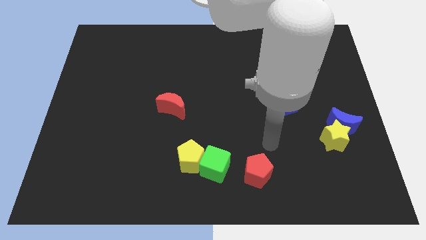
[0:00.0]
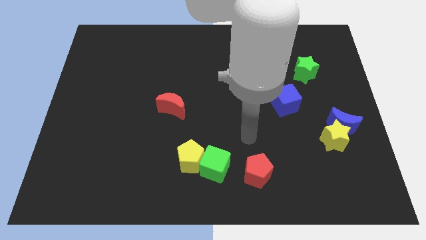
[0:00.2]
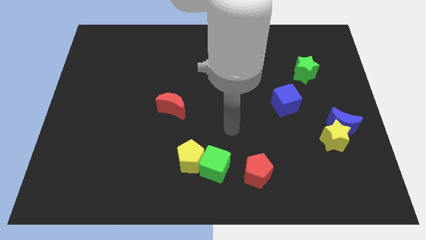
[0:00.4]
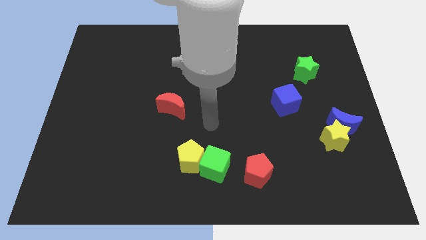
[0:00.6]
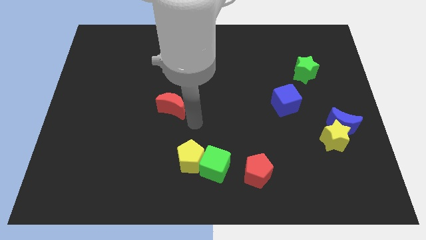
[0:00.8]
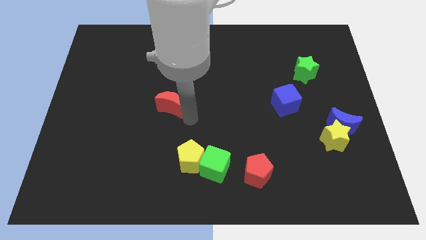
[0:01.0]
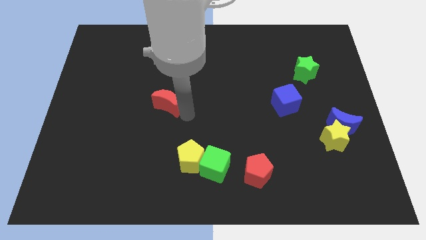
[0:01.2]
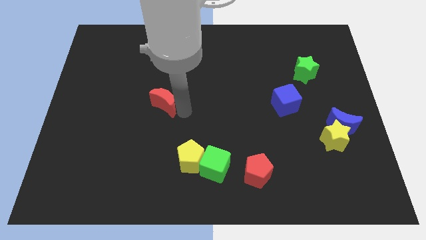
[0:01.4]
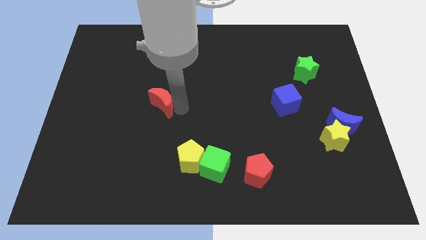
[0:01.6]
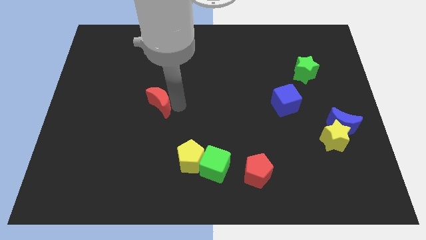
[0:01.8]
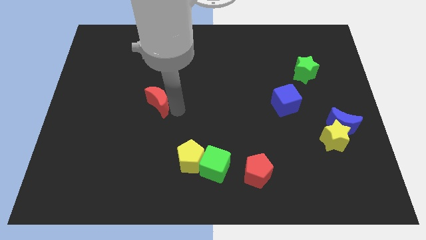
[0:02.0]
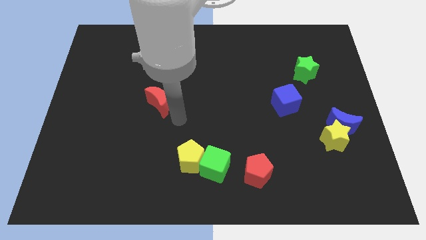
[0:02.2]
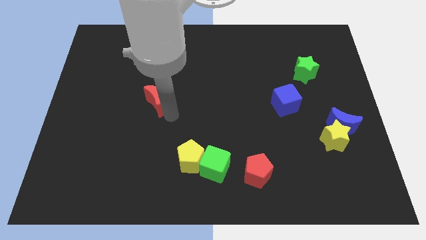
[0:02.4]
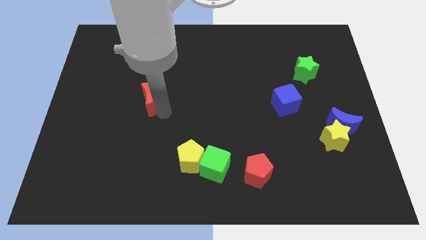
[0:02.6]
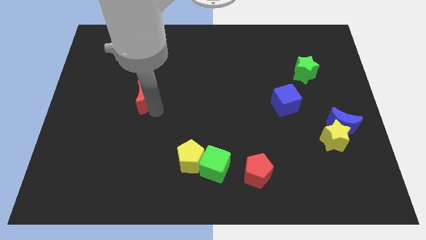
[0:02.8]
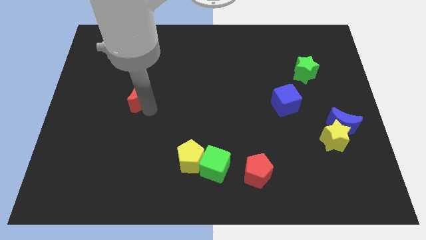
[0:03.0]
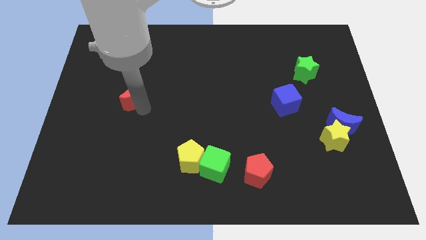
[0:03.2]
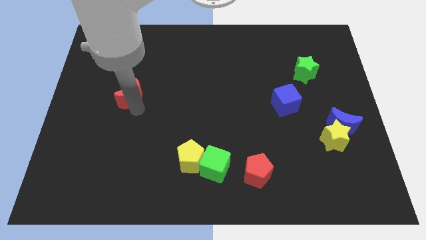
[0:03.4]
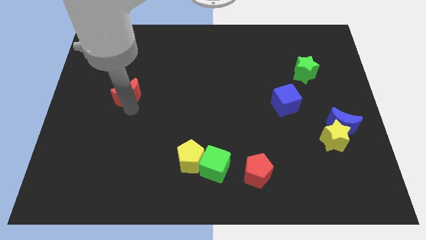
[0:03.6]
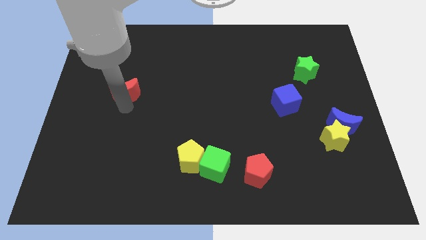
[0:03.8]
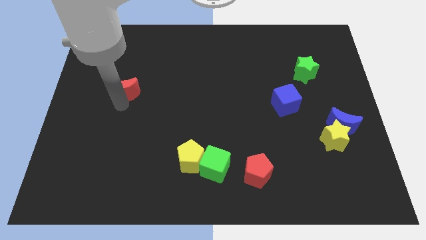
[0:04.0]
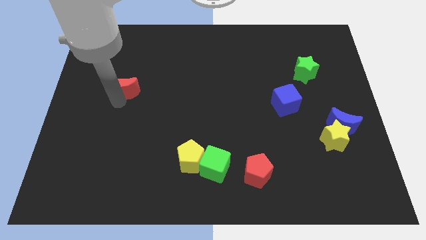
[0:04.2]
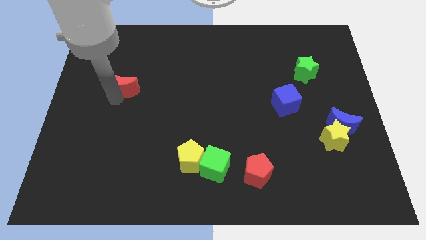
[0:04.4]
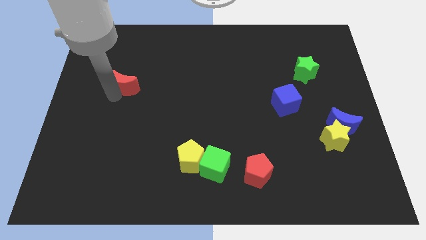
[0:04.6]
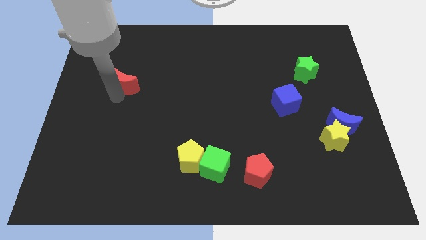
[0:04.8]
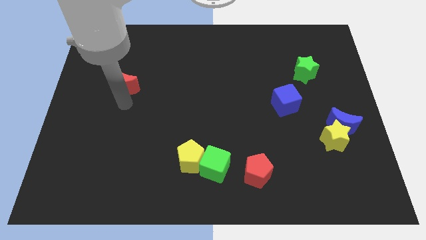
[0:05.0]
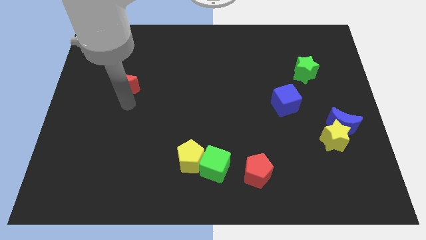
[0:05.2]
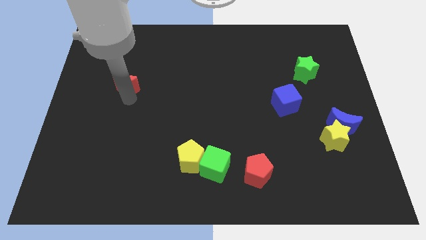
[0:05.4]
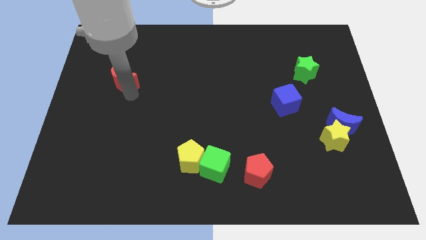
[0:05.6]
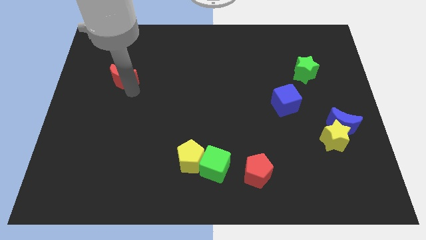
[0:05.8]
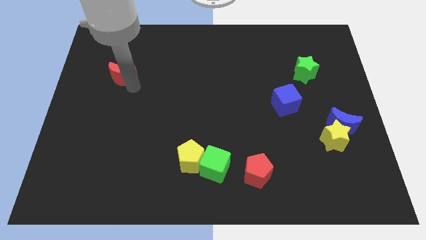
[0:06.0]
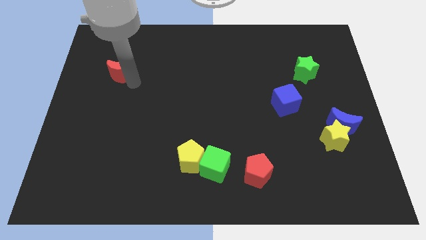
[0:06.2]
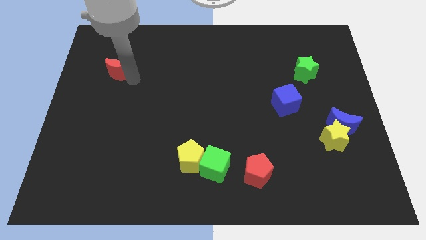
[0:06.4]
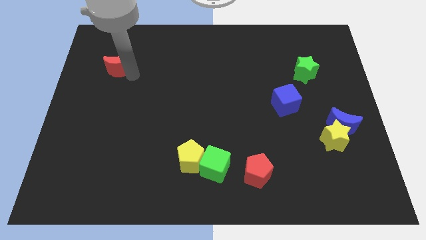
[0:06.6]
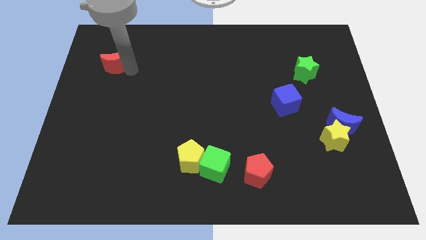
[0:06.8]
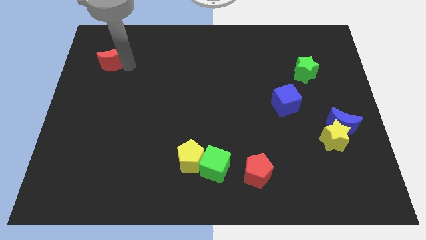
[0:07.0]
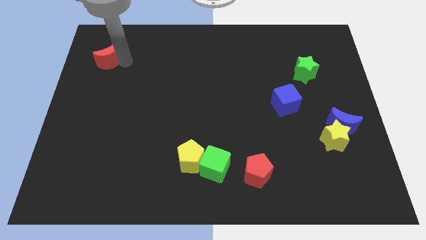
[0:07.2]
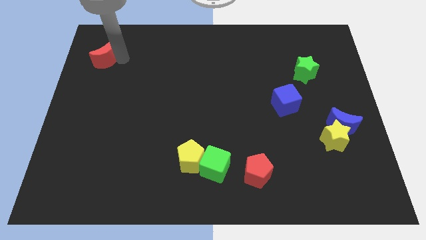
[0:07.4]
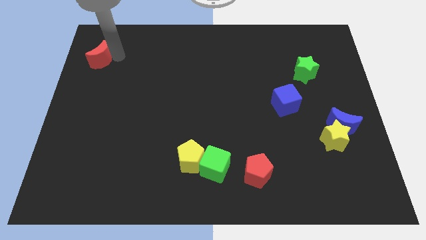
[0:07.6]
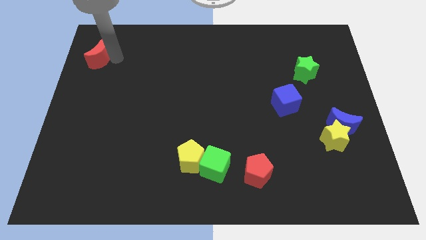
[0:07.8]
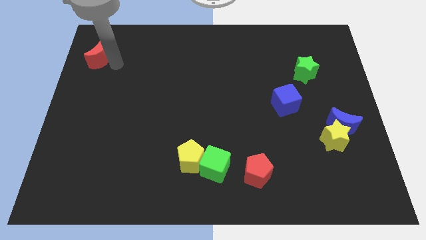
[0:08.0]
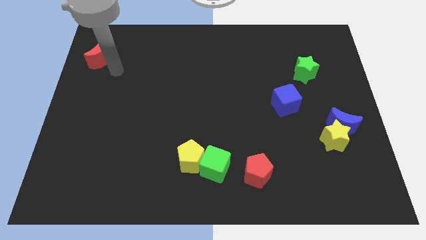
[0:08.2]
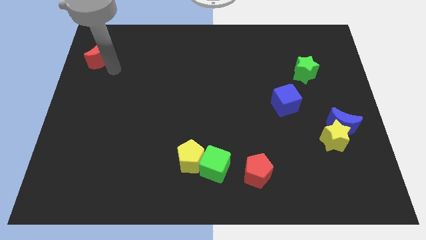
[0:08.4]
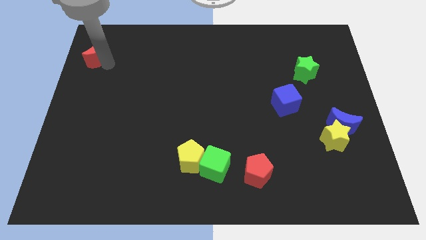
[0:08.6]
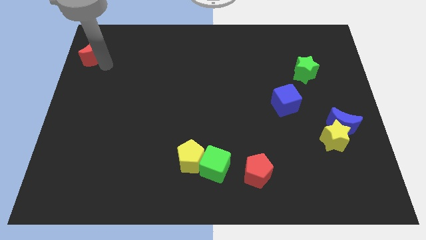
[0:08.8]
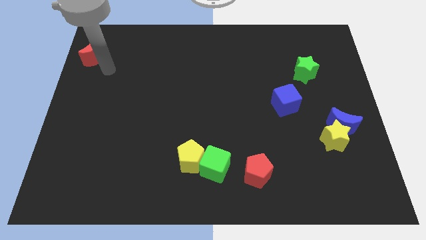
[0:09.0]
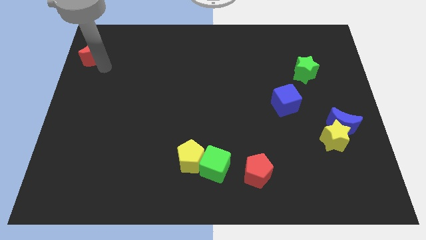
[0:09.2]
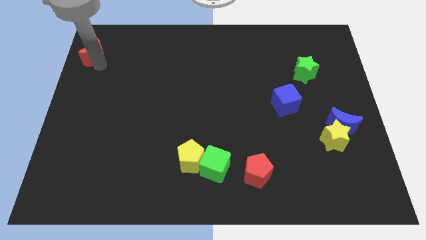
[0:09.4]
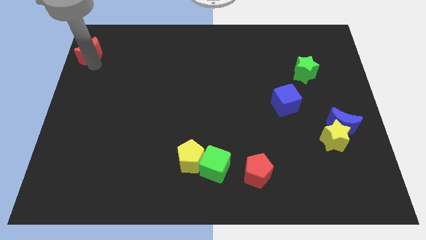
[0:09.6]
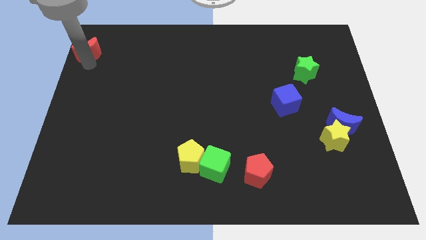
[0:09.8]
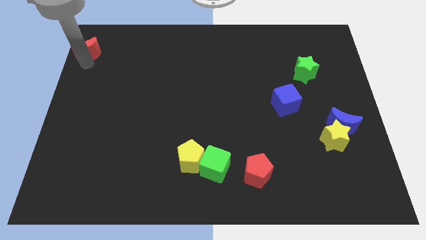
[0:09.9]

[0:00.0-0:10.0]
put the red moon to the top left corner

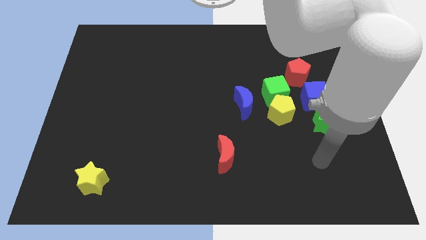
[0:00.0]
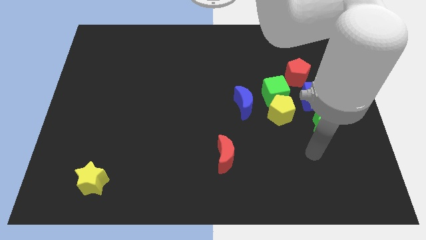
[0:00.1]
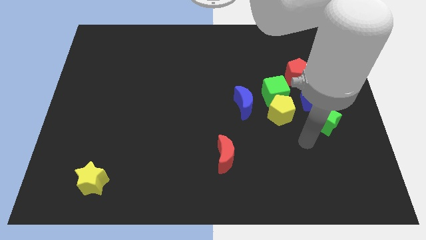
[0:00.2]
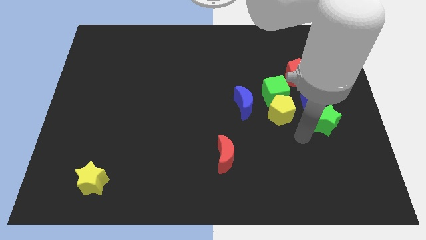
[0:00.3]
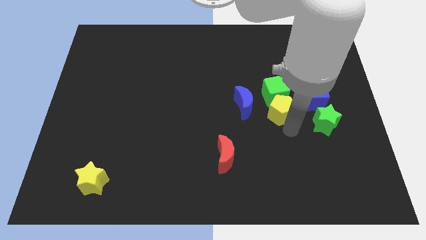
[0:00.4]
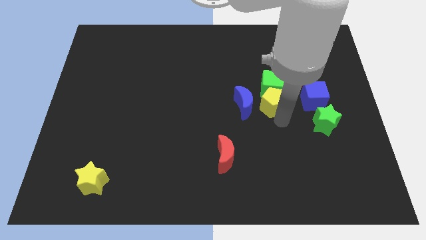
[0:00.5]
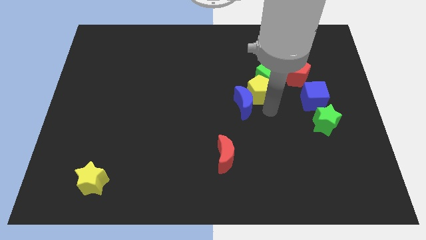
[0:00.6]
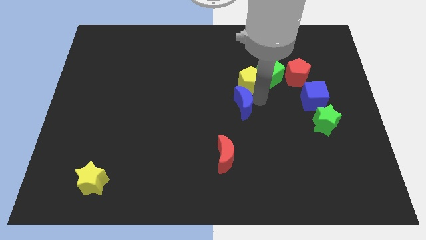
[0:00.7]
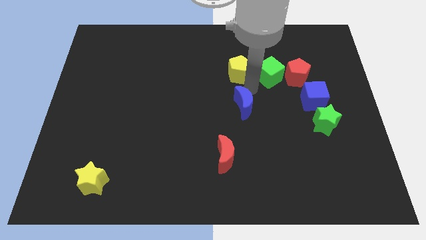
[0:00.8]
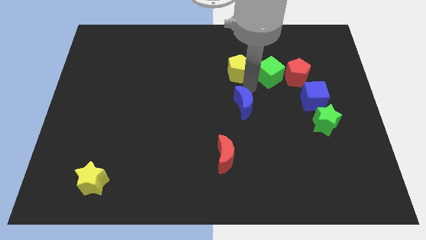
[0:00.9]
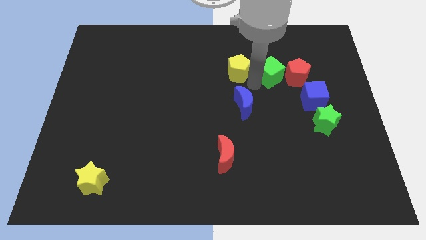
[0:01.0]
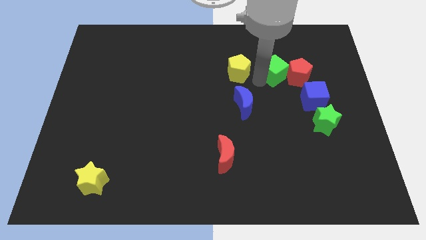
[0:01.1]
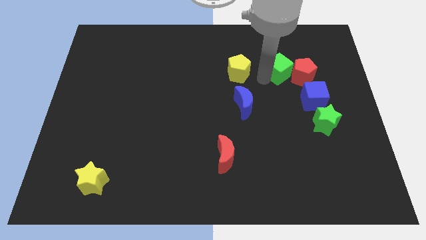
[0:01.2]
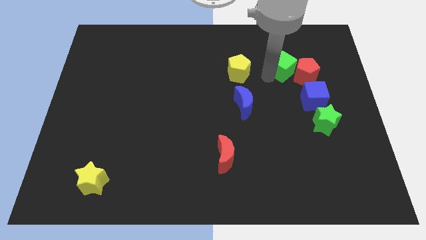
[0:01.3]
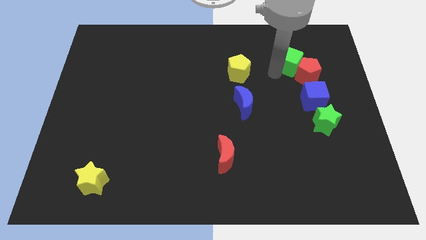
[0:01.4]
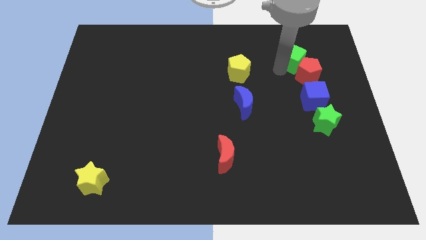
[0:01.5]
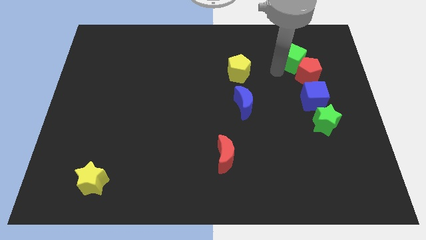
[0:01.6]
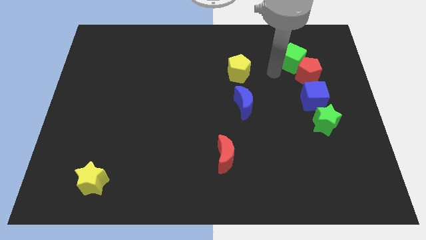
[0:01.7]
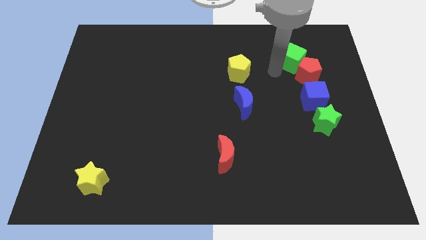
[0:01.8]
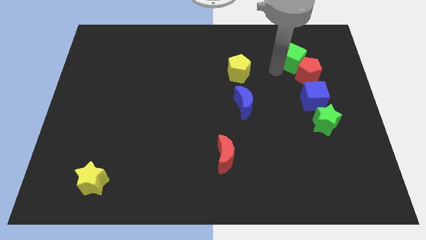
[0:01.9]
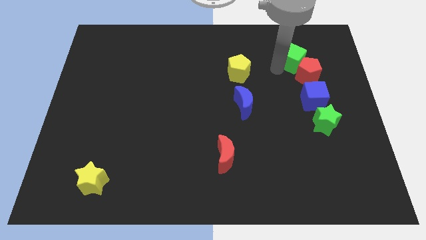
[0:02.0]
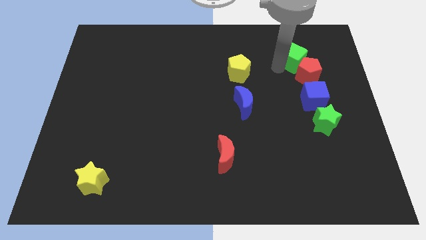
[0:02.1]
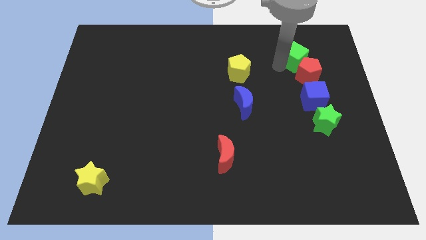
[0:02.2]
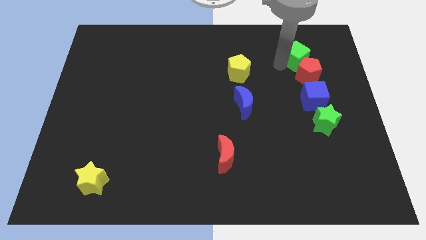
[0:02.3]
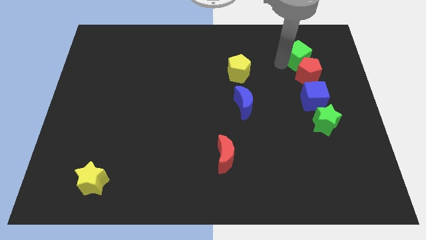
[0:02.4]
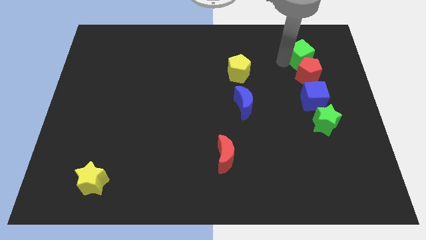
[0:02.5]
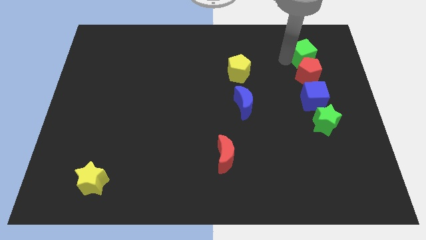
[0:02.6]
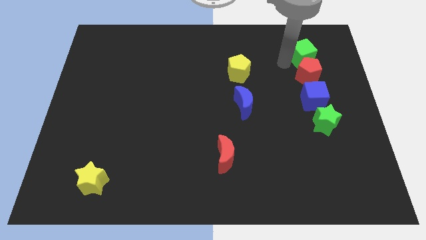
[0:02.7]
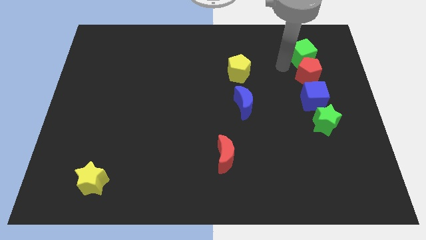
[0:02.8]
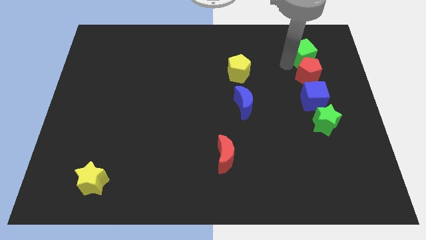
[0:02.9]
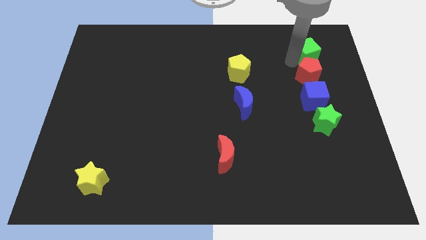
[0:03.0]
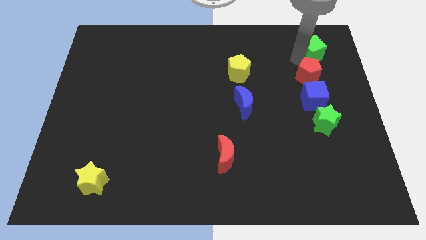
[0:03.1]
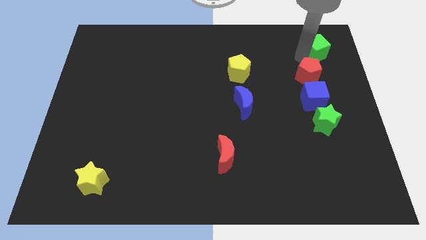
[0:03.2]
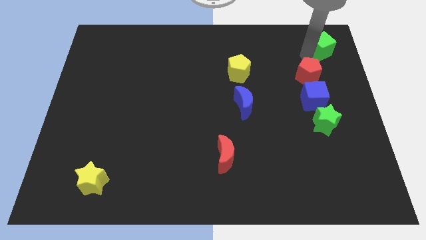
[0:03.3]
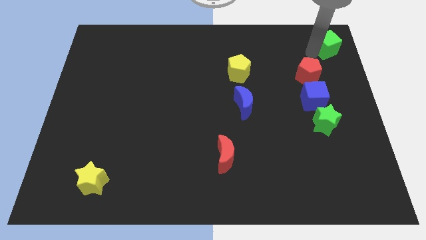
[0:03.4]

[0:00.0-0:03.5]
move the green cube to the top right of the board
